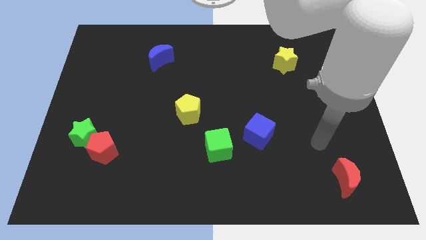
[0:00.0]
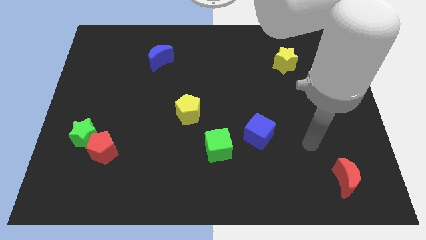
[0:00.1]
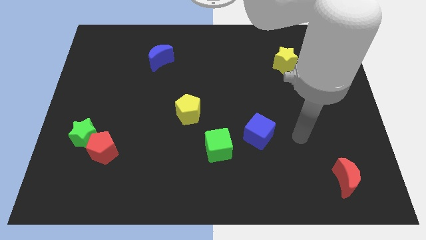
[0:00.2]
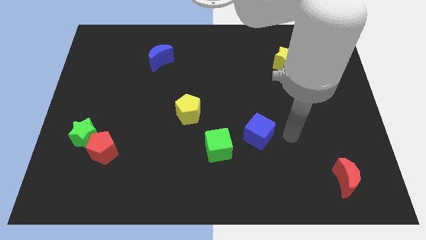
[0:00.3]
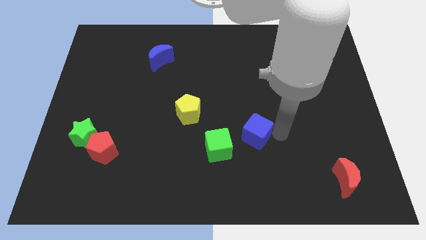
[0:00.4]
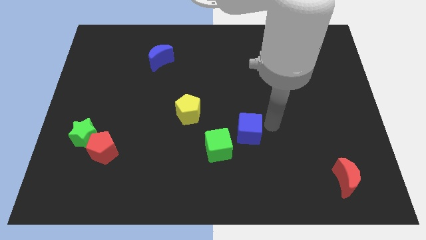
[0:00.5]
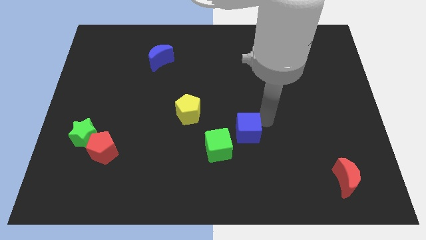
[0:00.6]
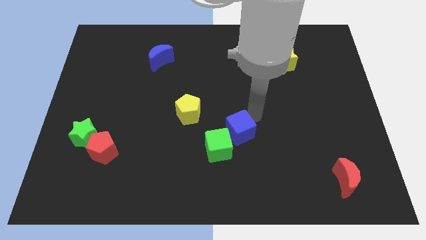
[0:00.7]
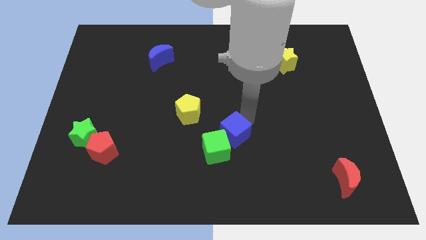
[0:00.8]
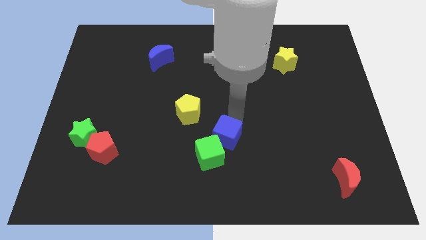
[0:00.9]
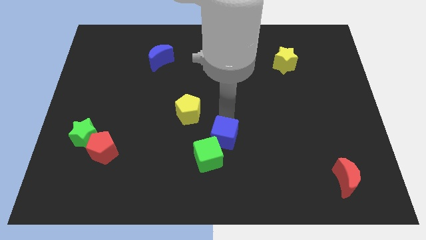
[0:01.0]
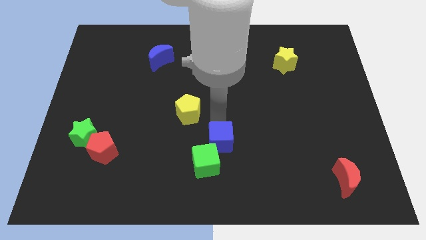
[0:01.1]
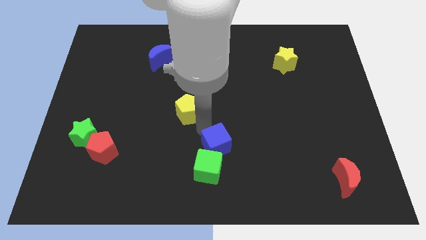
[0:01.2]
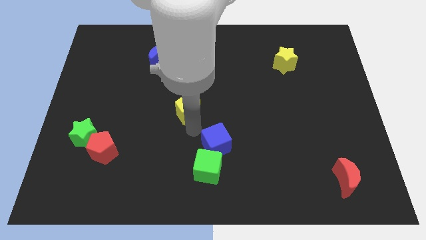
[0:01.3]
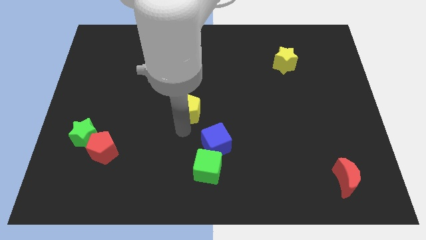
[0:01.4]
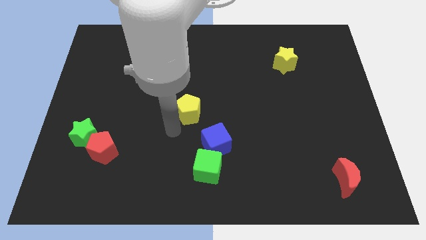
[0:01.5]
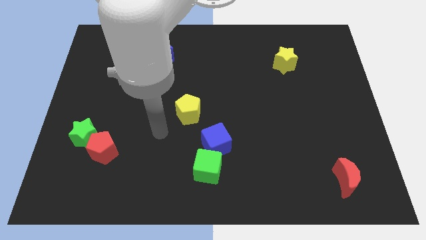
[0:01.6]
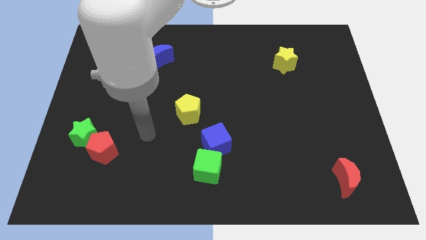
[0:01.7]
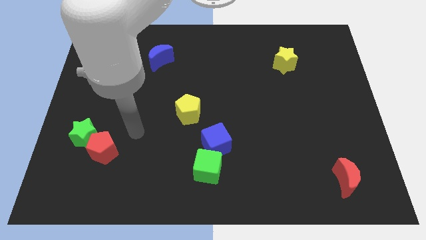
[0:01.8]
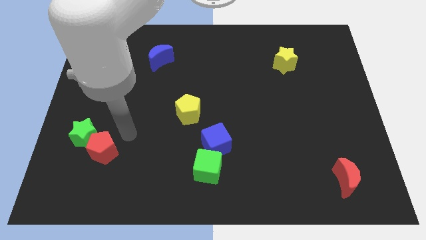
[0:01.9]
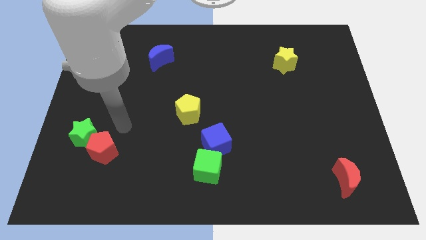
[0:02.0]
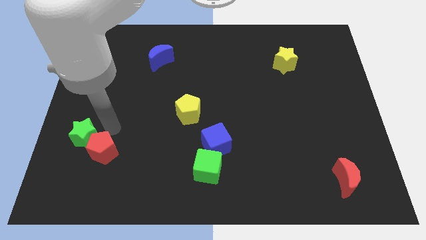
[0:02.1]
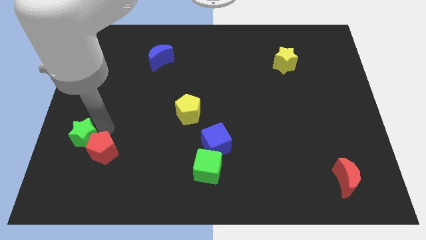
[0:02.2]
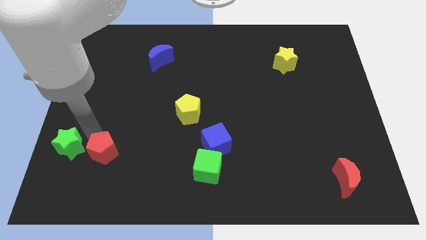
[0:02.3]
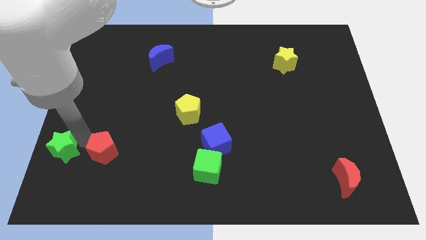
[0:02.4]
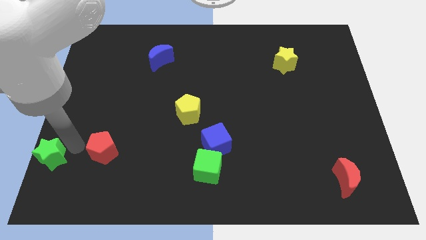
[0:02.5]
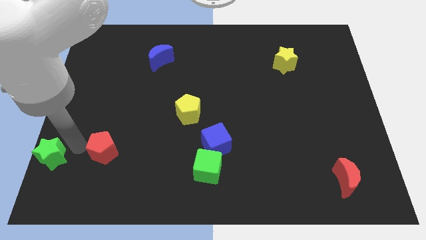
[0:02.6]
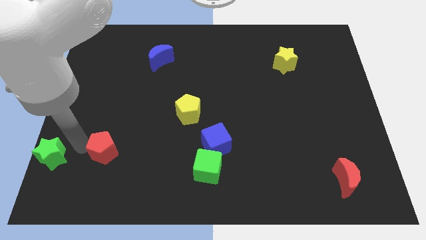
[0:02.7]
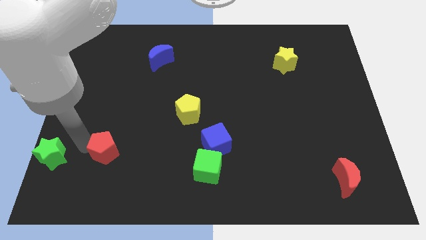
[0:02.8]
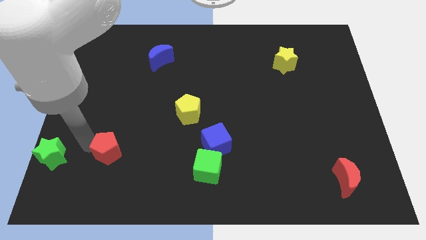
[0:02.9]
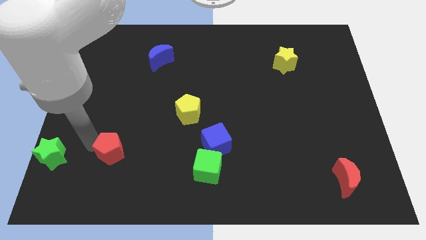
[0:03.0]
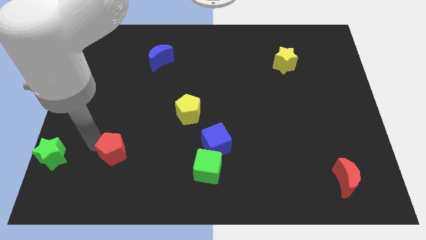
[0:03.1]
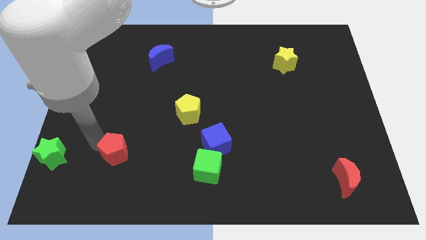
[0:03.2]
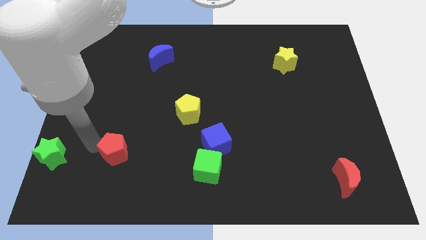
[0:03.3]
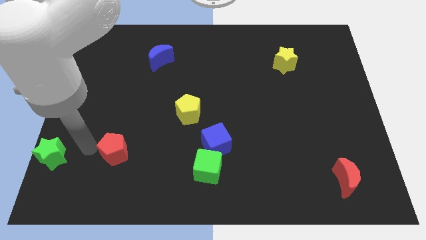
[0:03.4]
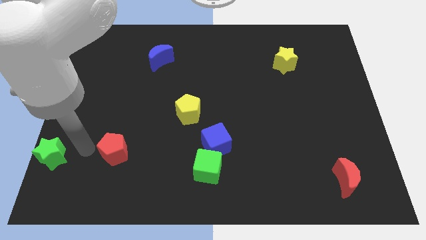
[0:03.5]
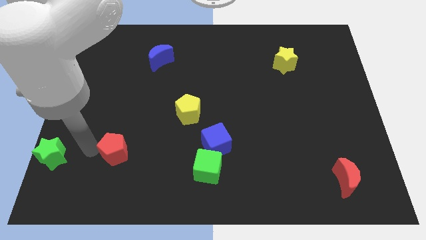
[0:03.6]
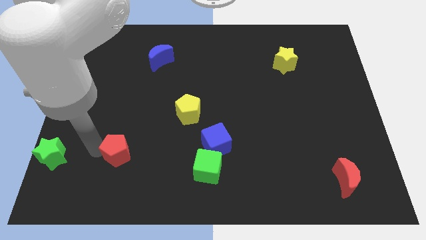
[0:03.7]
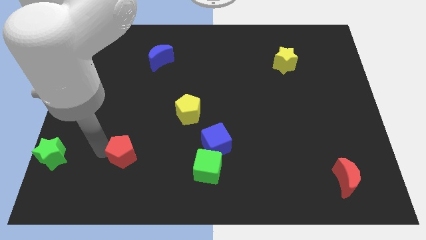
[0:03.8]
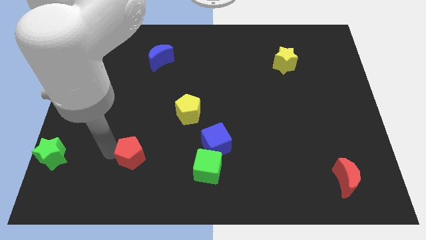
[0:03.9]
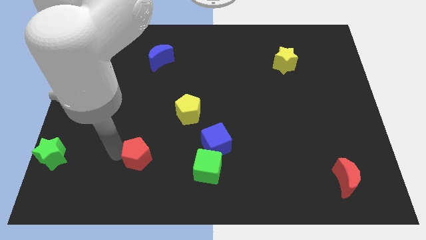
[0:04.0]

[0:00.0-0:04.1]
move the red pentagon right a little bit

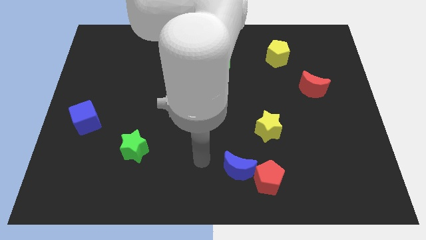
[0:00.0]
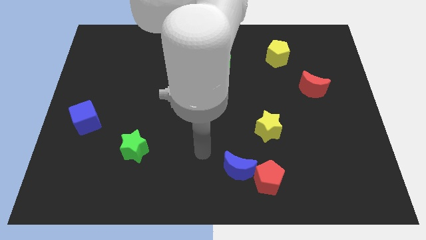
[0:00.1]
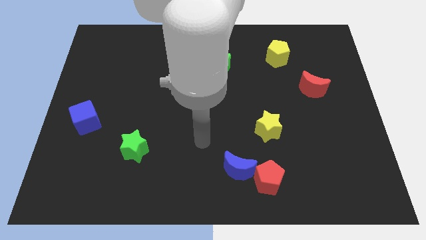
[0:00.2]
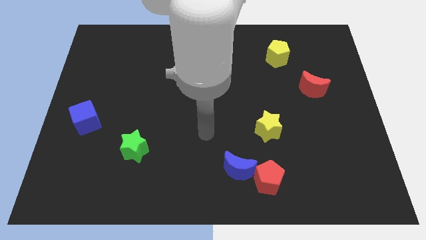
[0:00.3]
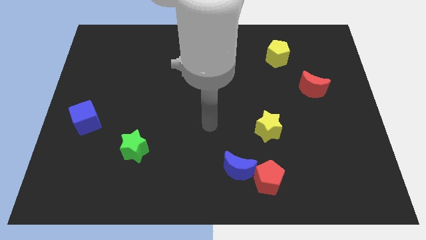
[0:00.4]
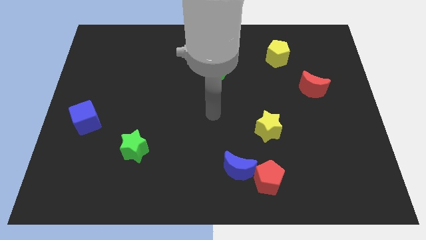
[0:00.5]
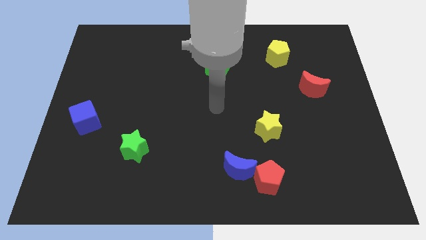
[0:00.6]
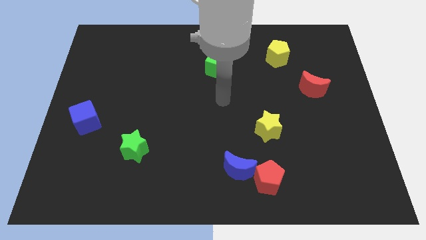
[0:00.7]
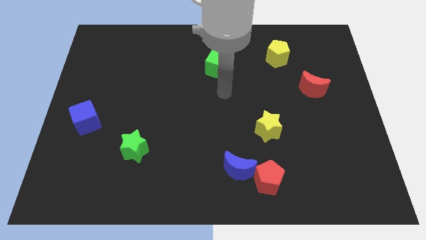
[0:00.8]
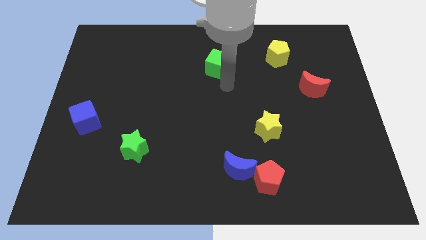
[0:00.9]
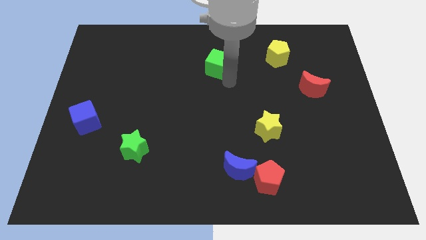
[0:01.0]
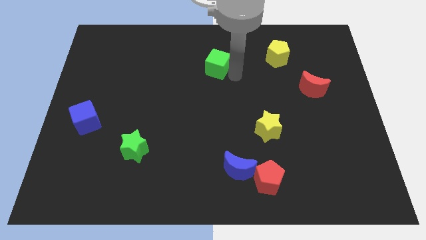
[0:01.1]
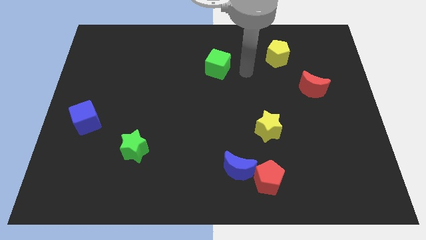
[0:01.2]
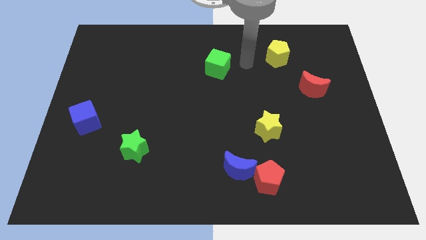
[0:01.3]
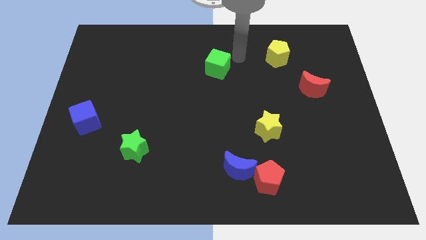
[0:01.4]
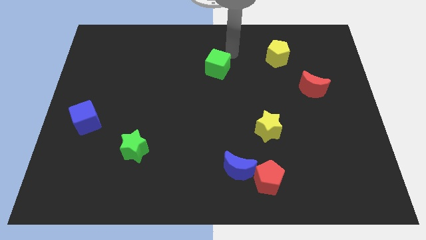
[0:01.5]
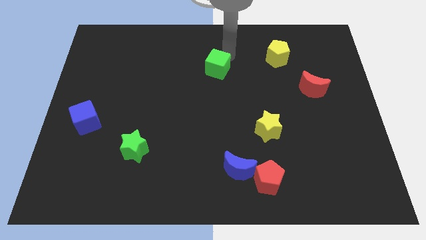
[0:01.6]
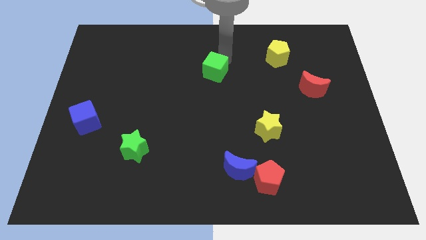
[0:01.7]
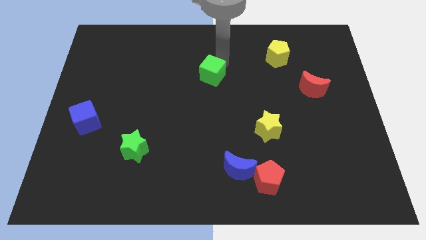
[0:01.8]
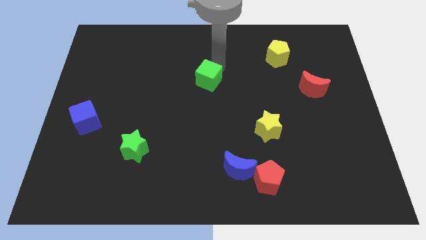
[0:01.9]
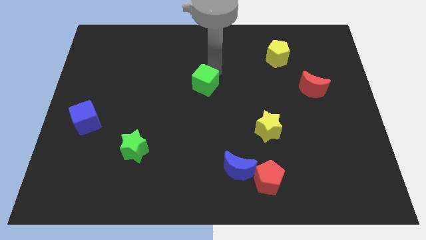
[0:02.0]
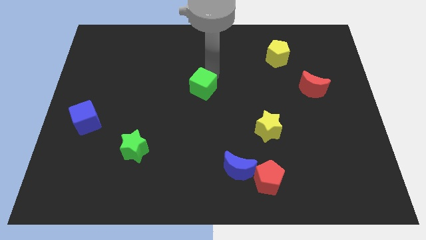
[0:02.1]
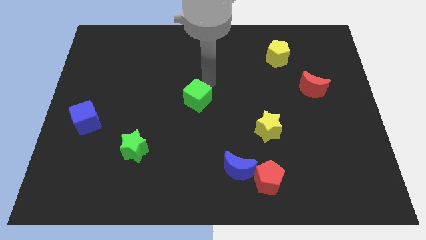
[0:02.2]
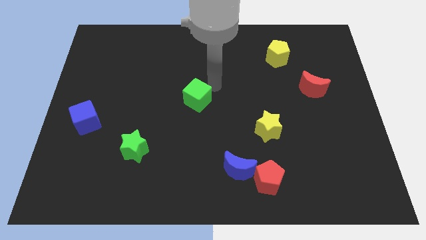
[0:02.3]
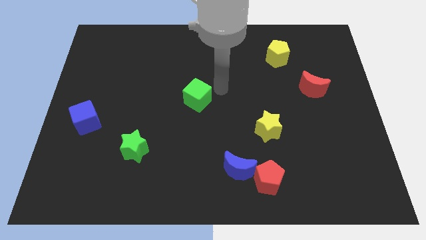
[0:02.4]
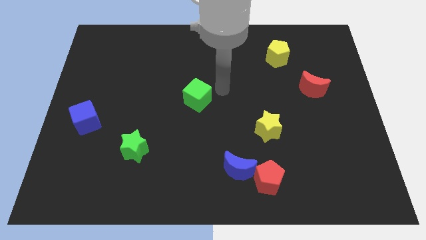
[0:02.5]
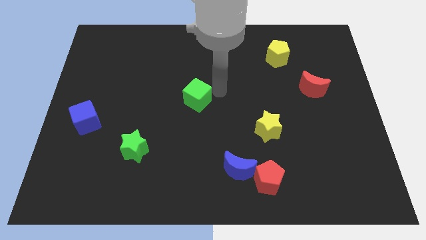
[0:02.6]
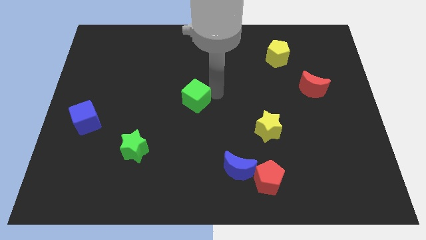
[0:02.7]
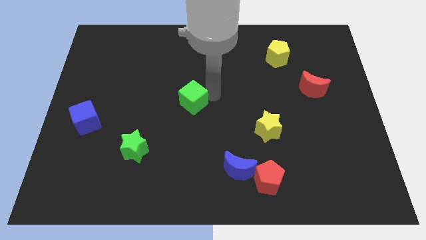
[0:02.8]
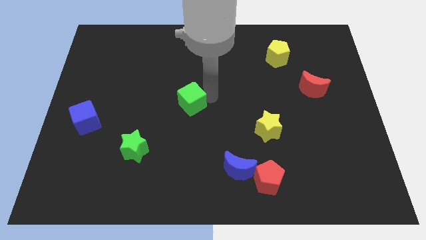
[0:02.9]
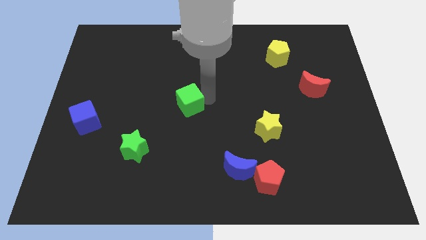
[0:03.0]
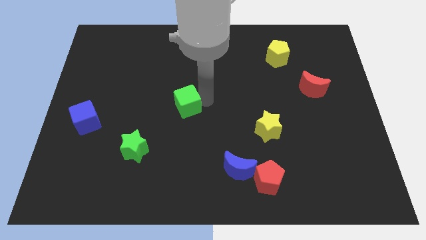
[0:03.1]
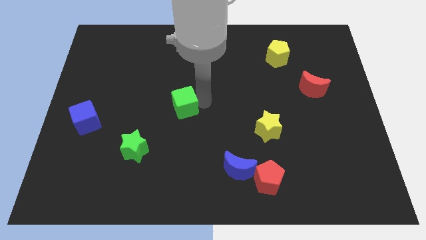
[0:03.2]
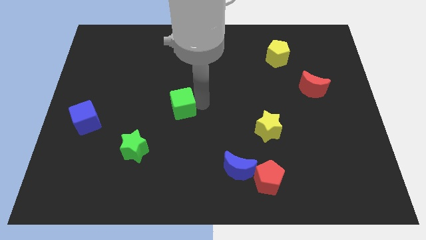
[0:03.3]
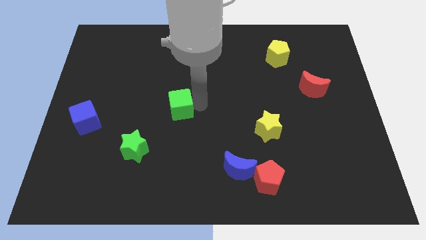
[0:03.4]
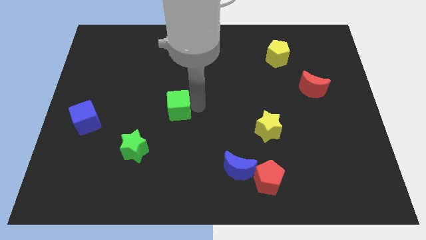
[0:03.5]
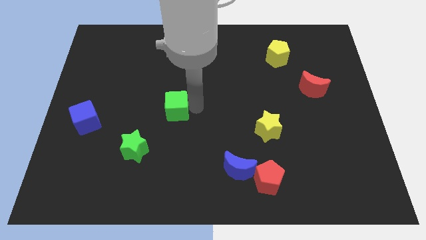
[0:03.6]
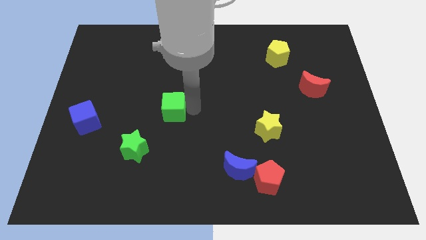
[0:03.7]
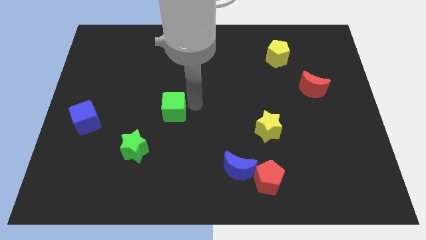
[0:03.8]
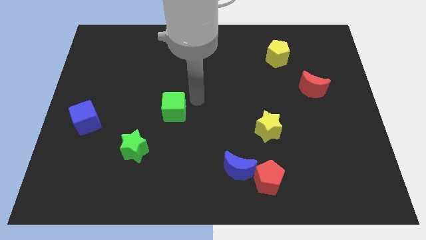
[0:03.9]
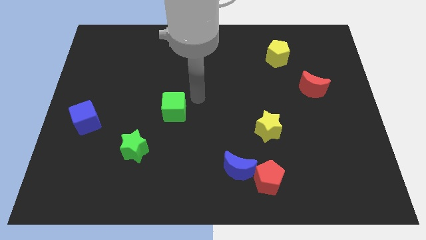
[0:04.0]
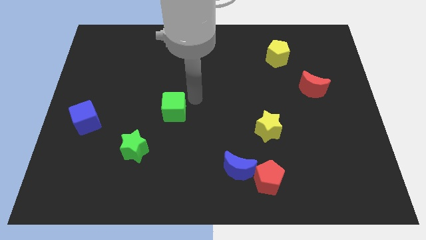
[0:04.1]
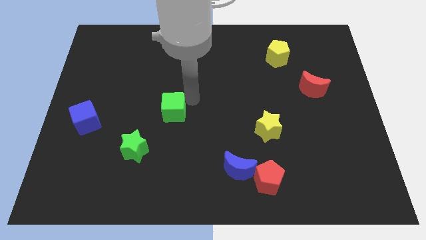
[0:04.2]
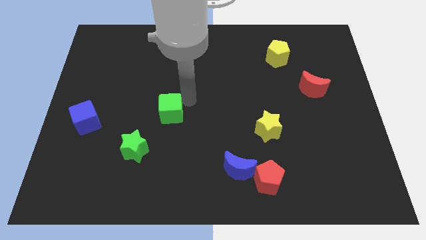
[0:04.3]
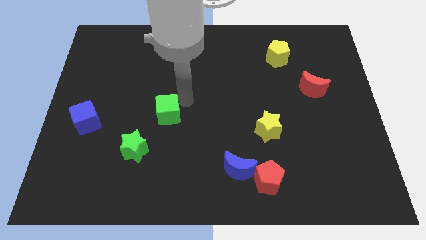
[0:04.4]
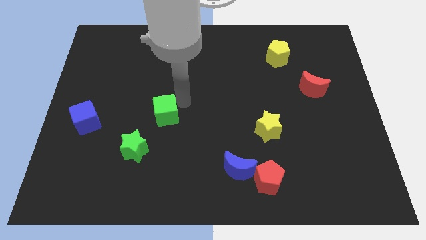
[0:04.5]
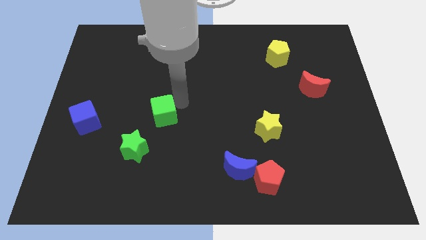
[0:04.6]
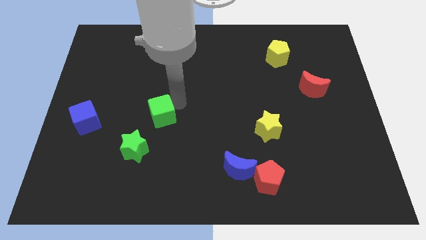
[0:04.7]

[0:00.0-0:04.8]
move the green cube downwards and to the left
